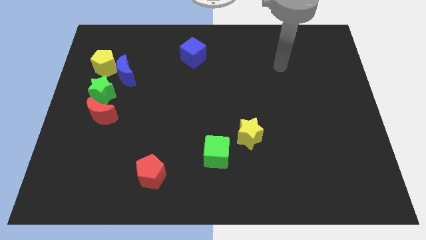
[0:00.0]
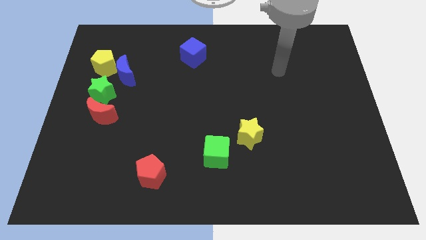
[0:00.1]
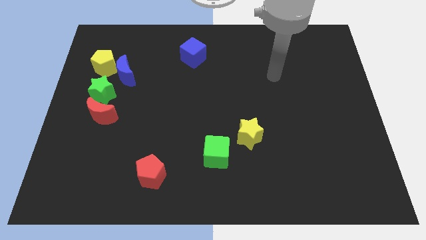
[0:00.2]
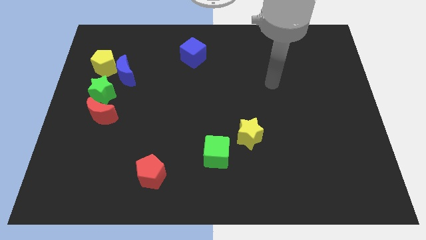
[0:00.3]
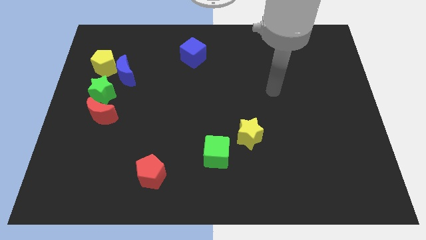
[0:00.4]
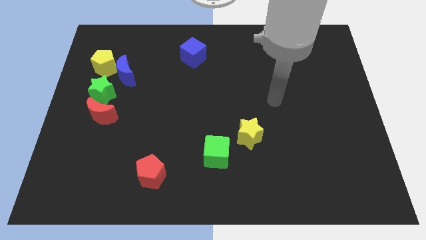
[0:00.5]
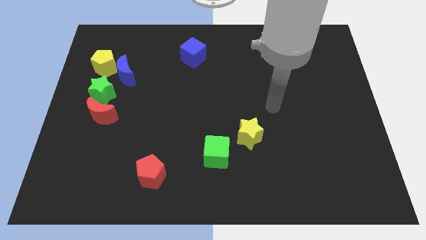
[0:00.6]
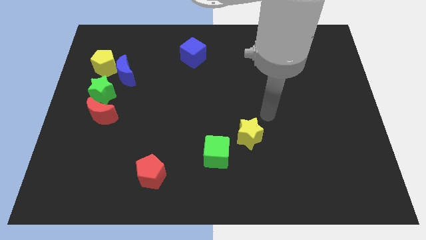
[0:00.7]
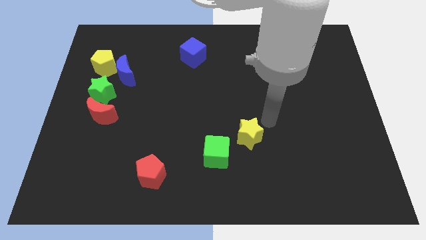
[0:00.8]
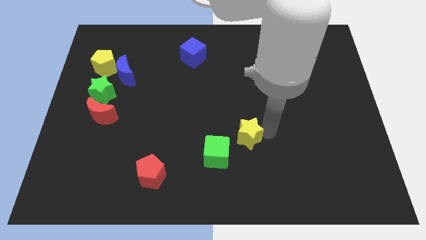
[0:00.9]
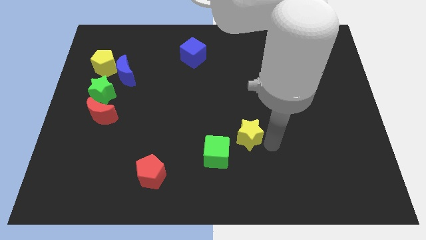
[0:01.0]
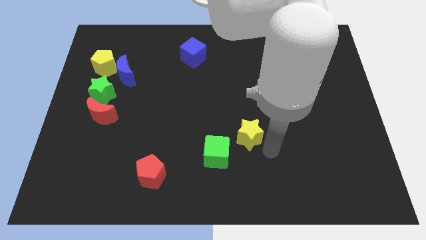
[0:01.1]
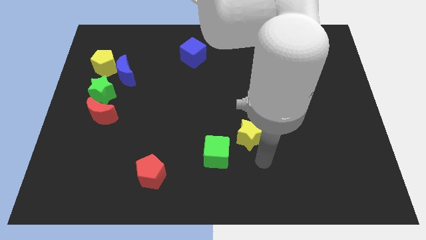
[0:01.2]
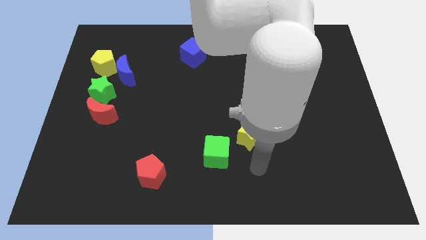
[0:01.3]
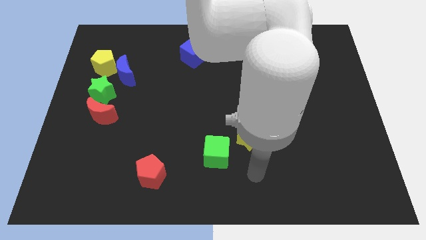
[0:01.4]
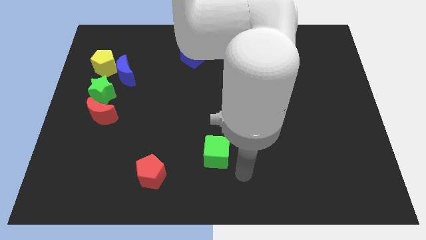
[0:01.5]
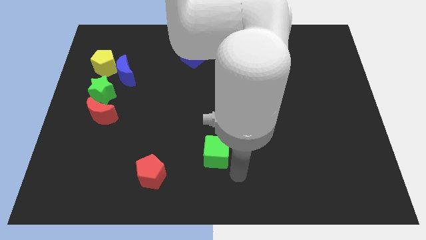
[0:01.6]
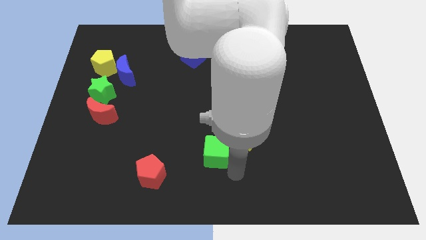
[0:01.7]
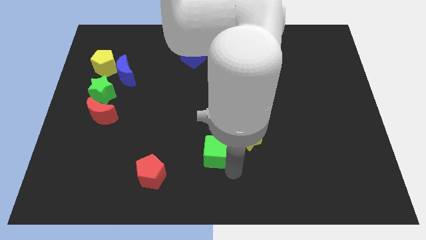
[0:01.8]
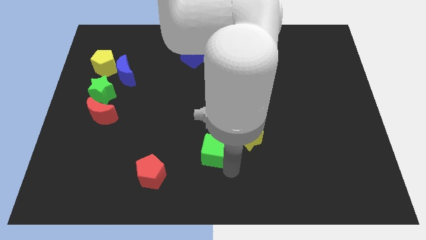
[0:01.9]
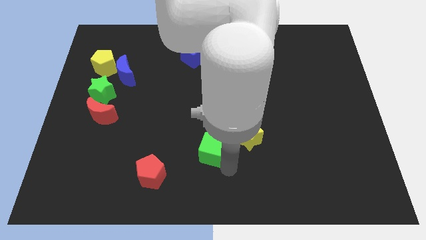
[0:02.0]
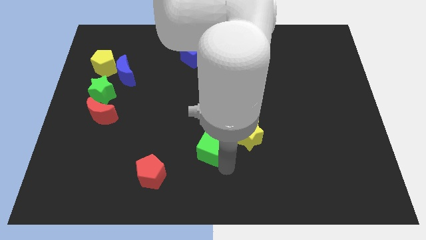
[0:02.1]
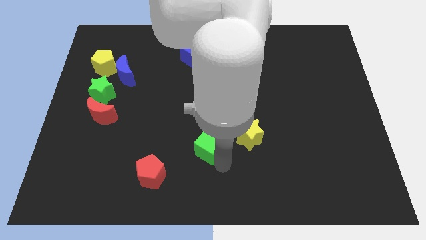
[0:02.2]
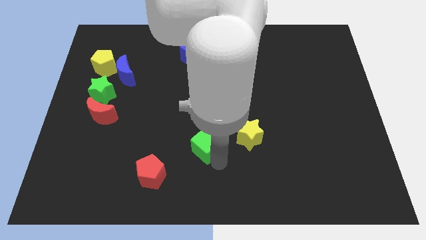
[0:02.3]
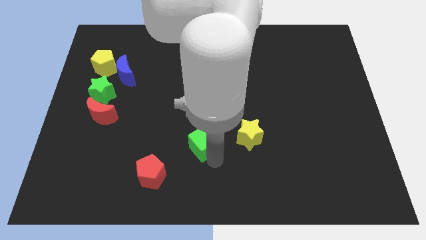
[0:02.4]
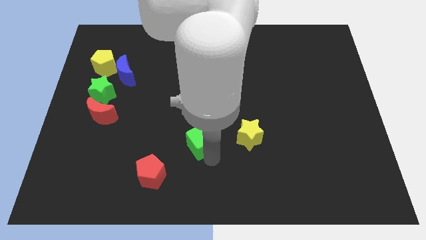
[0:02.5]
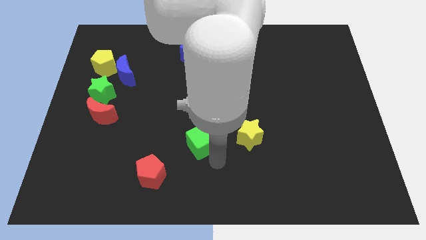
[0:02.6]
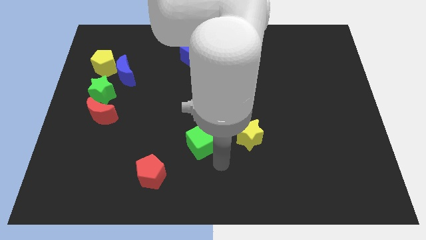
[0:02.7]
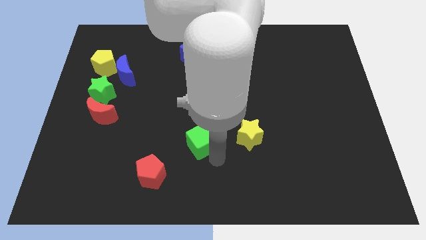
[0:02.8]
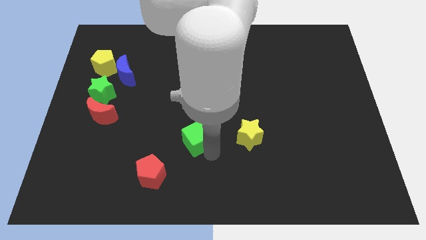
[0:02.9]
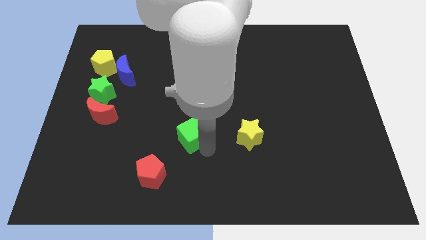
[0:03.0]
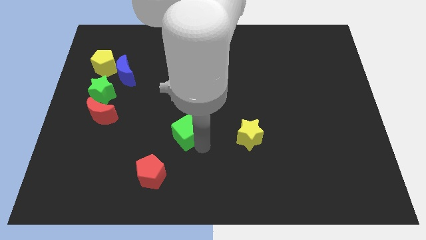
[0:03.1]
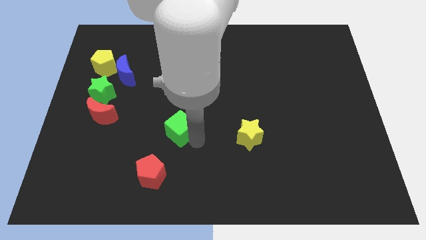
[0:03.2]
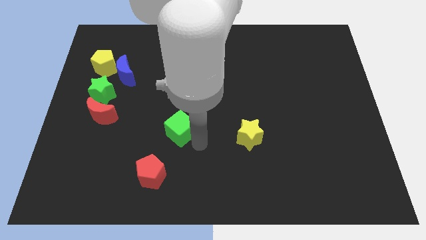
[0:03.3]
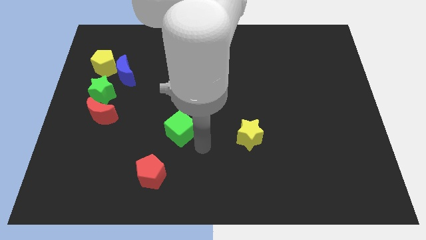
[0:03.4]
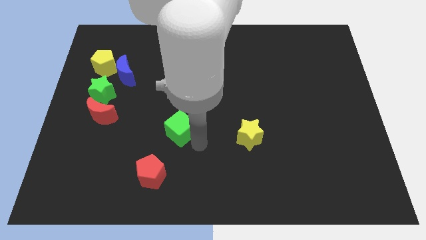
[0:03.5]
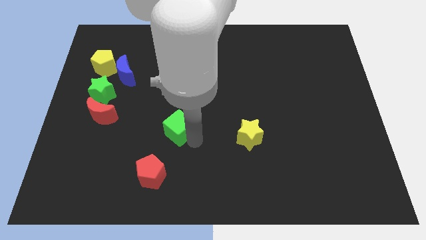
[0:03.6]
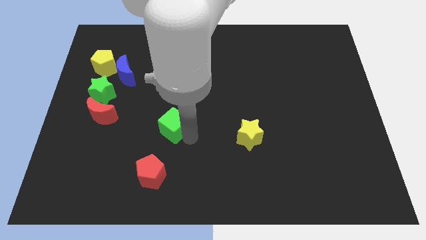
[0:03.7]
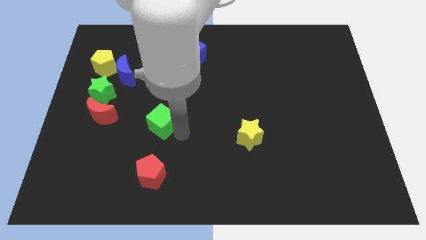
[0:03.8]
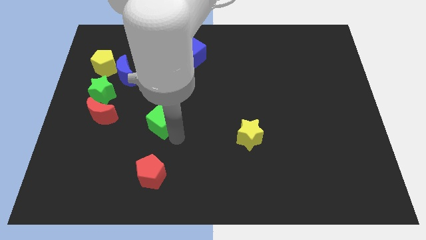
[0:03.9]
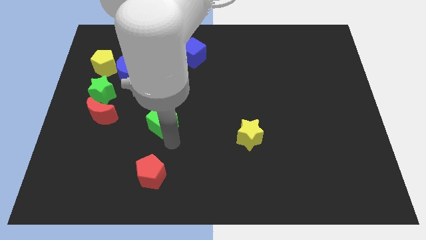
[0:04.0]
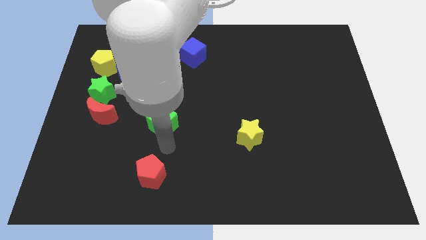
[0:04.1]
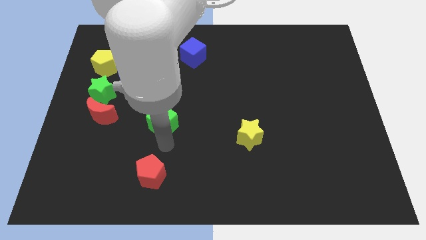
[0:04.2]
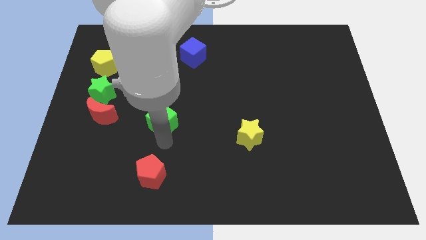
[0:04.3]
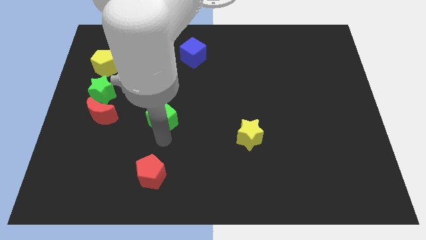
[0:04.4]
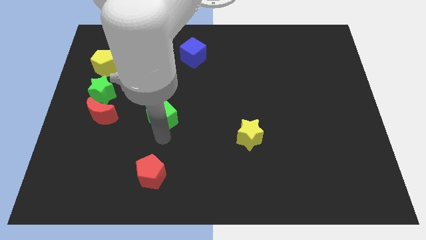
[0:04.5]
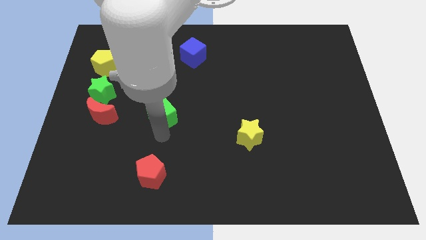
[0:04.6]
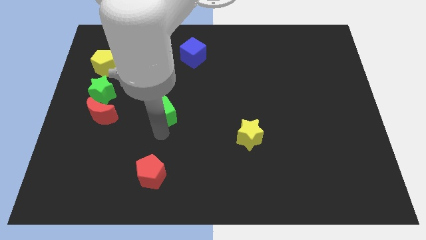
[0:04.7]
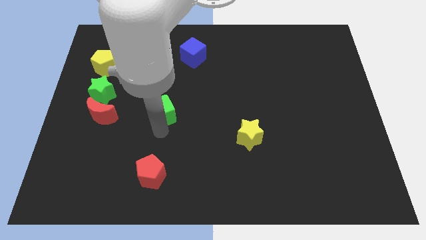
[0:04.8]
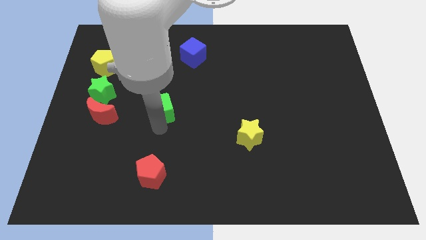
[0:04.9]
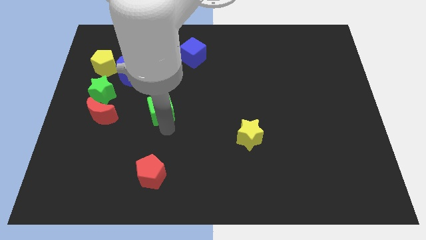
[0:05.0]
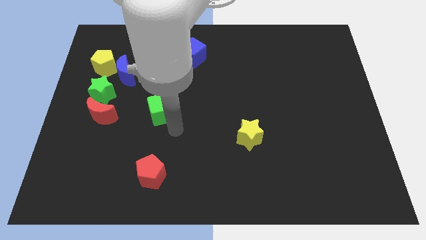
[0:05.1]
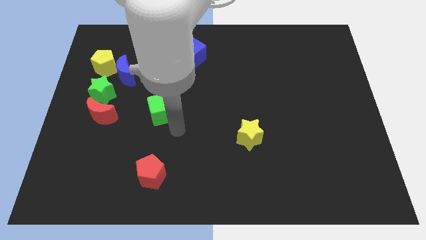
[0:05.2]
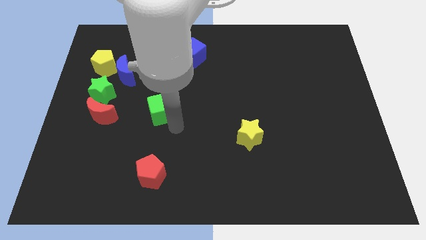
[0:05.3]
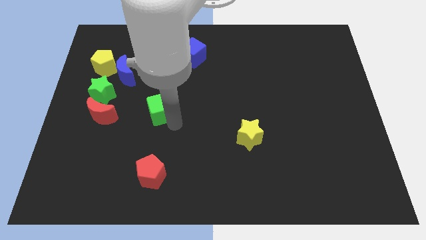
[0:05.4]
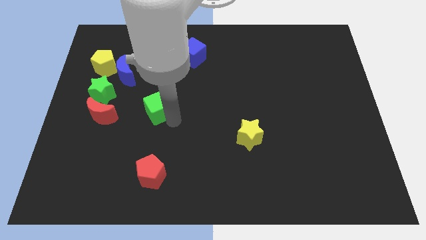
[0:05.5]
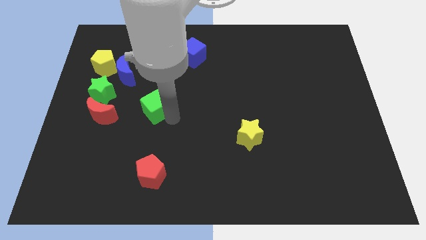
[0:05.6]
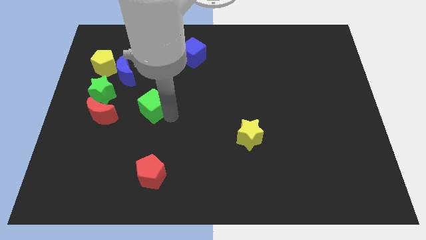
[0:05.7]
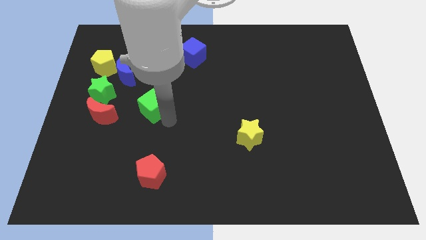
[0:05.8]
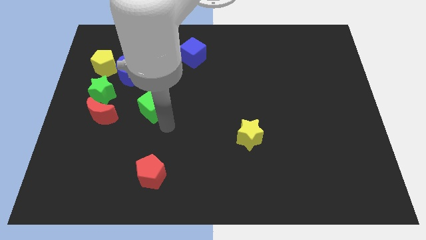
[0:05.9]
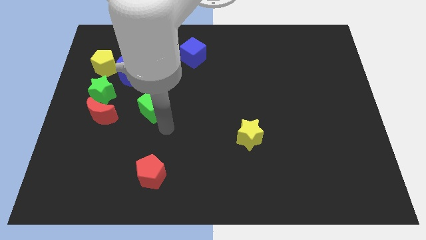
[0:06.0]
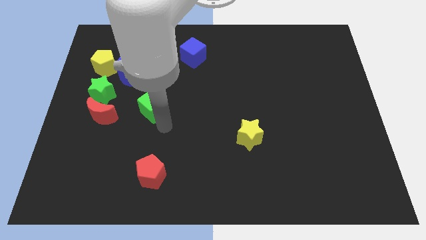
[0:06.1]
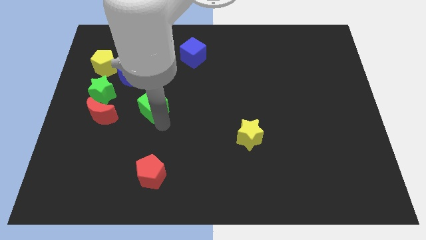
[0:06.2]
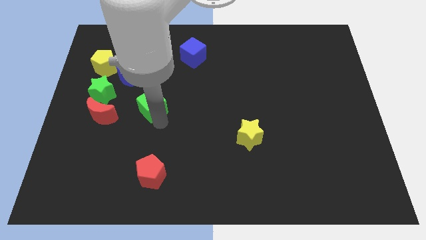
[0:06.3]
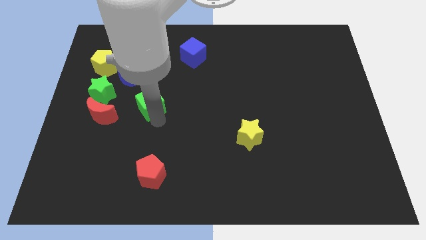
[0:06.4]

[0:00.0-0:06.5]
put the green cube diagonally down and to the right of the blue moon
